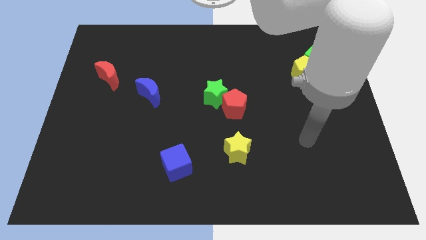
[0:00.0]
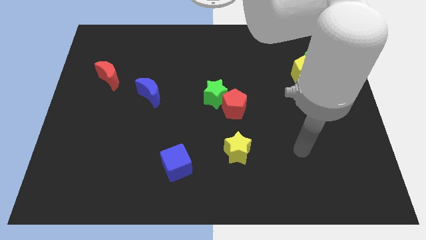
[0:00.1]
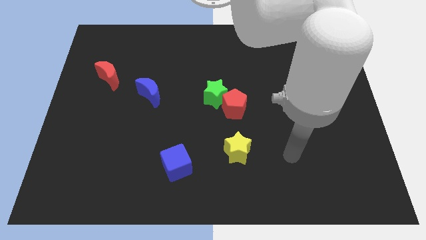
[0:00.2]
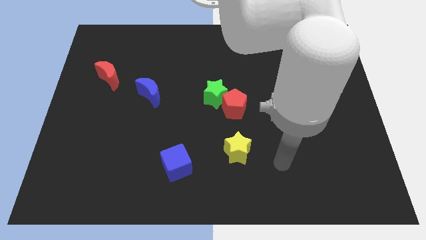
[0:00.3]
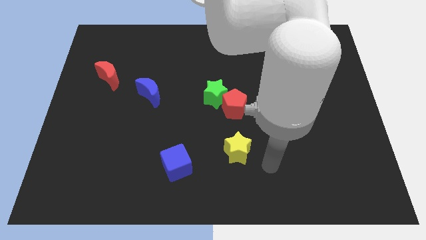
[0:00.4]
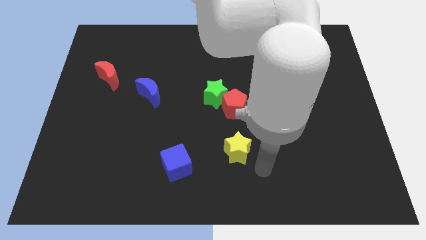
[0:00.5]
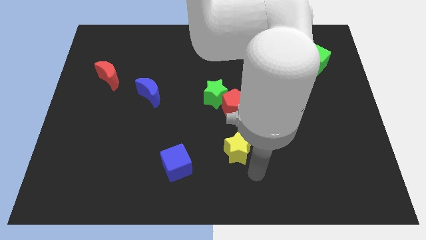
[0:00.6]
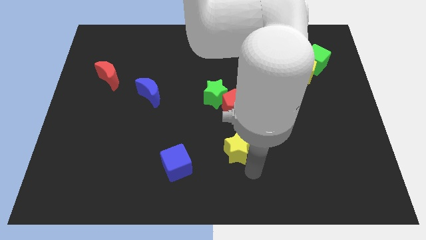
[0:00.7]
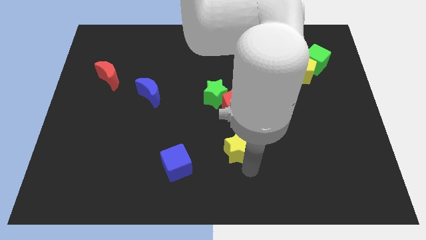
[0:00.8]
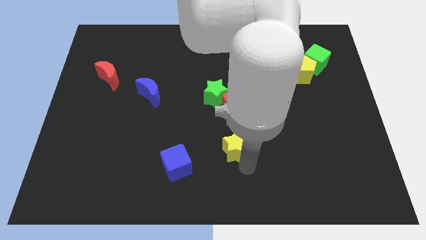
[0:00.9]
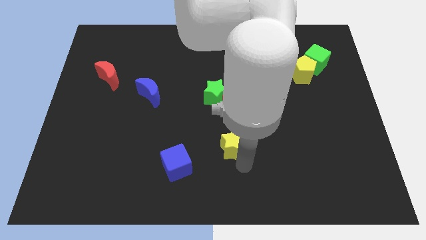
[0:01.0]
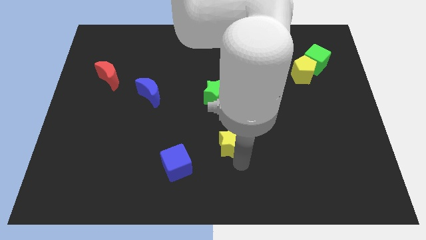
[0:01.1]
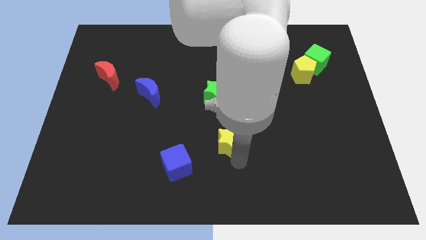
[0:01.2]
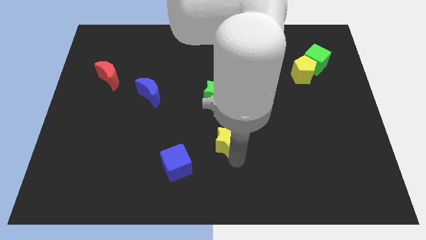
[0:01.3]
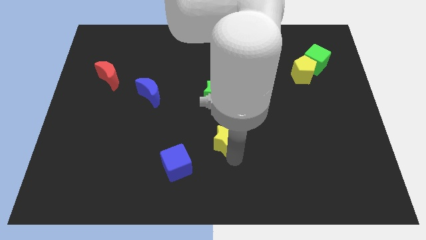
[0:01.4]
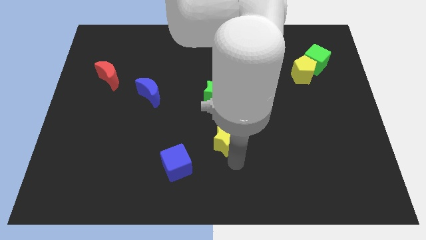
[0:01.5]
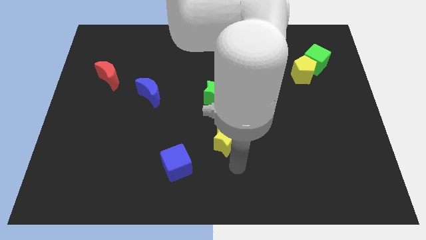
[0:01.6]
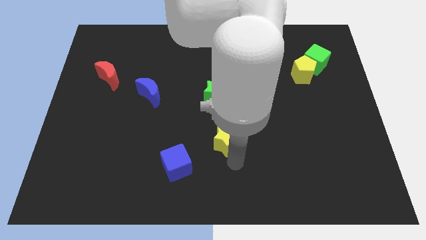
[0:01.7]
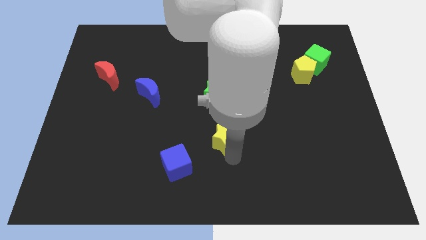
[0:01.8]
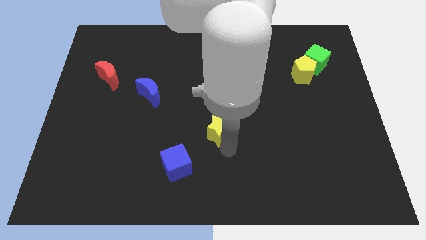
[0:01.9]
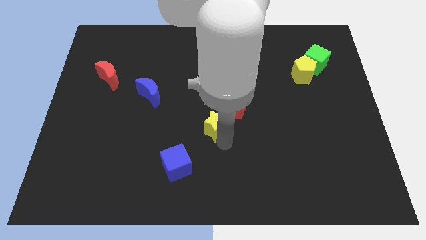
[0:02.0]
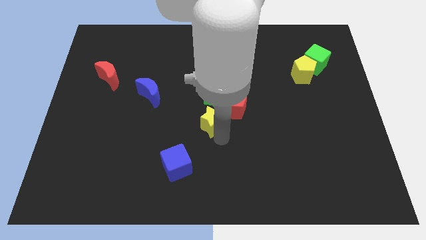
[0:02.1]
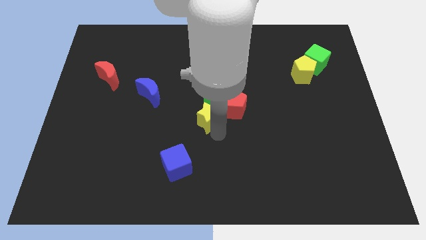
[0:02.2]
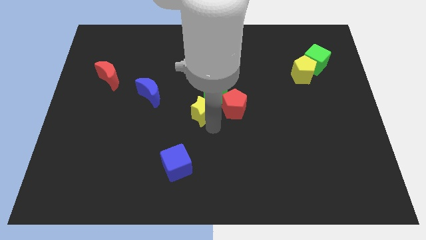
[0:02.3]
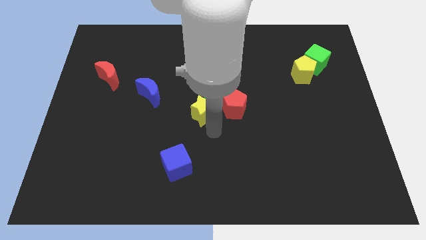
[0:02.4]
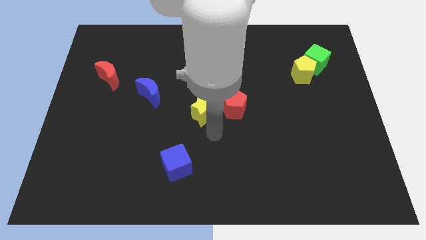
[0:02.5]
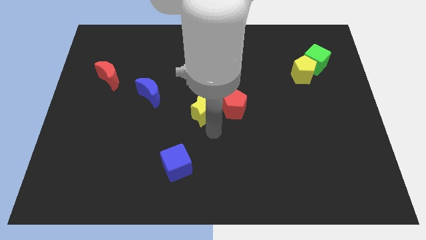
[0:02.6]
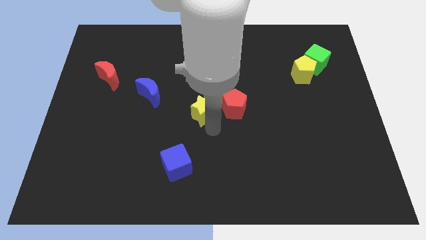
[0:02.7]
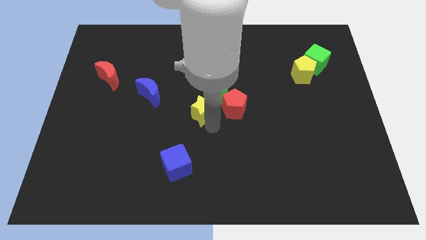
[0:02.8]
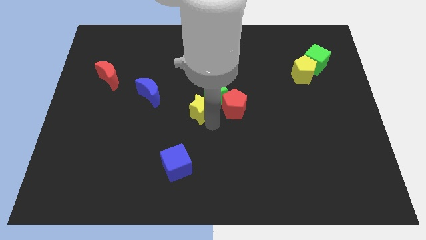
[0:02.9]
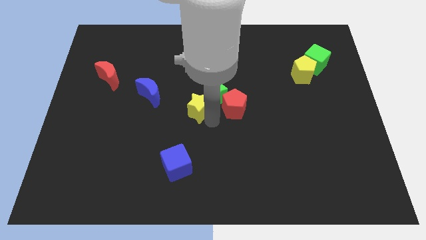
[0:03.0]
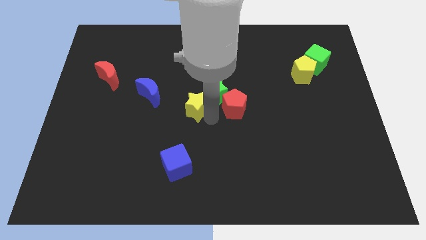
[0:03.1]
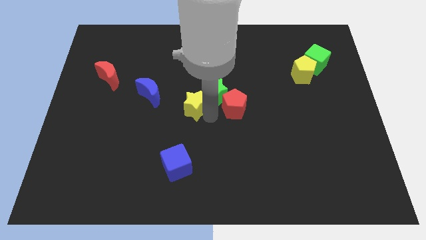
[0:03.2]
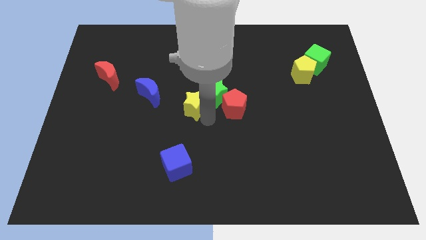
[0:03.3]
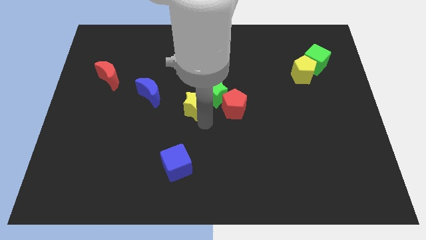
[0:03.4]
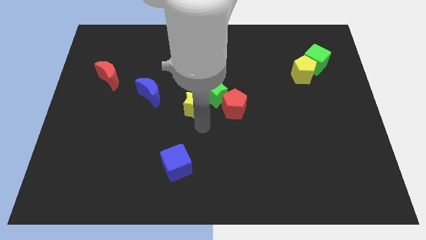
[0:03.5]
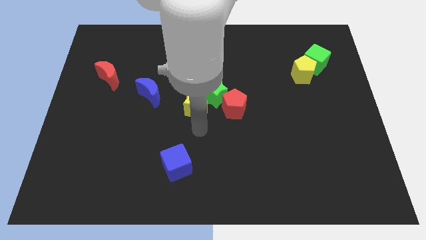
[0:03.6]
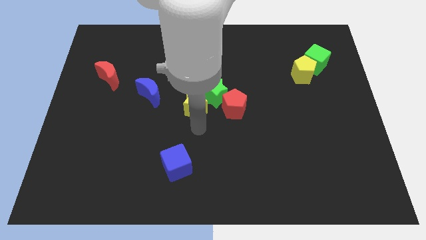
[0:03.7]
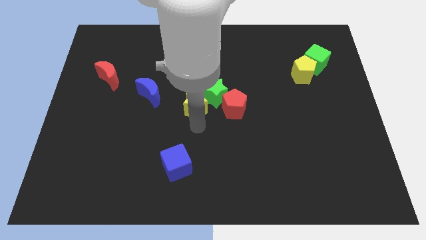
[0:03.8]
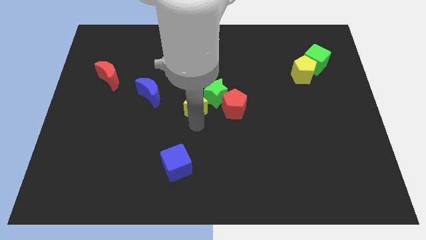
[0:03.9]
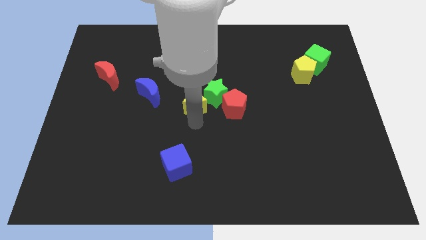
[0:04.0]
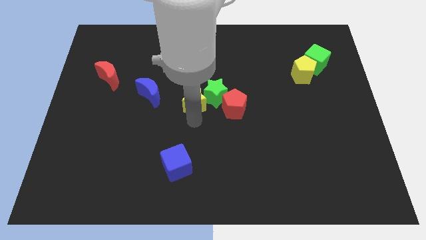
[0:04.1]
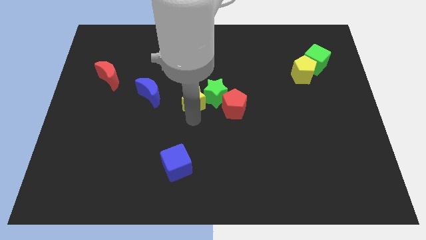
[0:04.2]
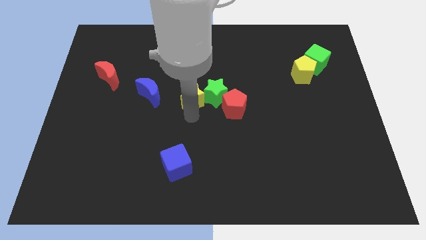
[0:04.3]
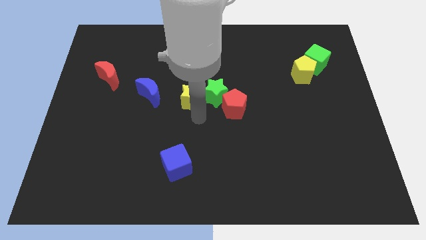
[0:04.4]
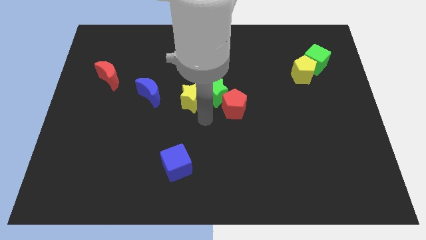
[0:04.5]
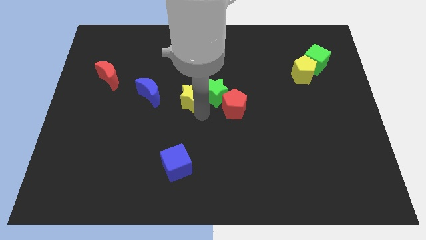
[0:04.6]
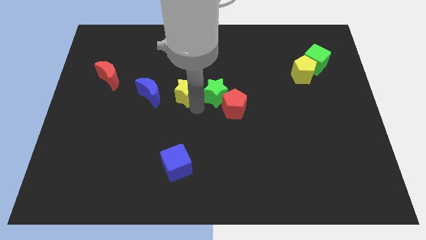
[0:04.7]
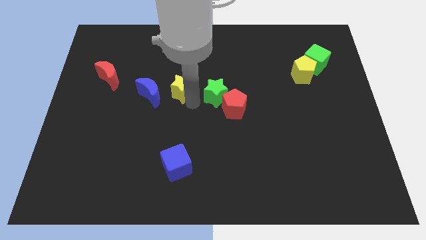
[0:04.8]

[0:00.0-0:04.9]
slide the yellow star to the top right side of the blue moon

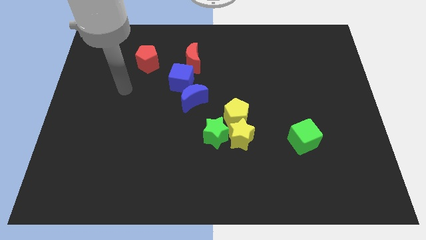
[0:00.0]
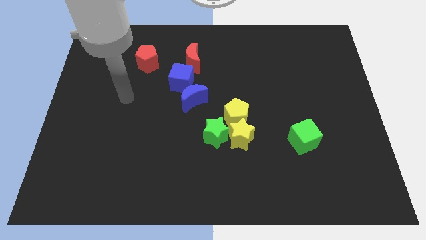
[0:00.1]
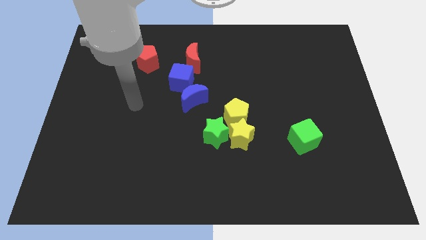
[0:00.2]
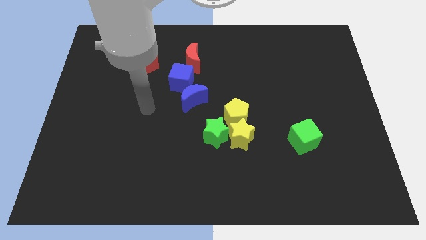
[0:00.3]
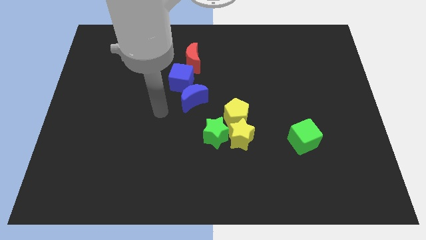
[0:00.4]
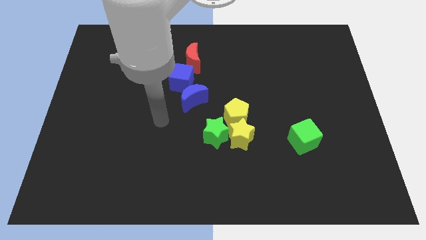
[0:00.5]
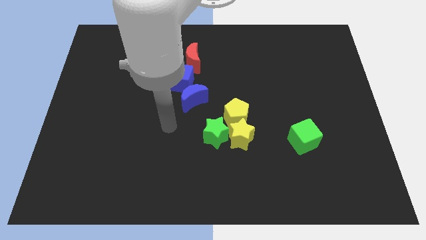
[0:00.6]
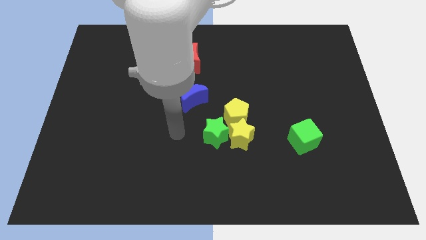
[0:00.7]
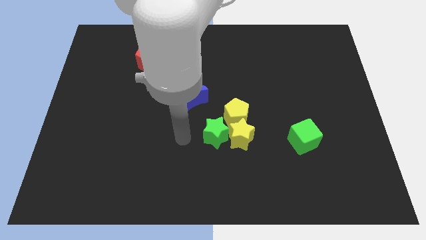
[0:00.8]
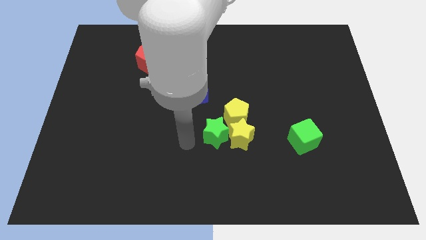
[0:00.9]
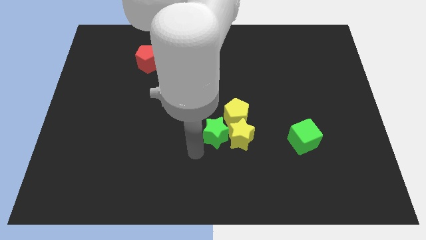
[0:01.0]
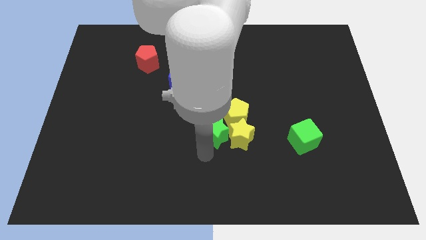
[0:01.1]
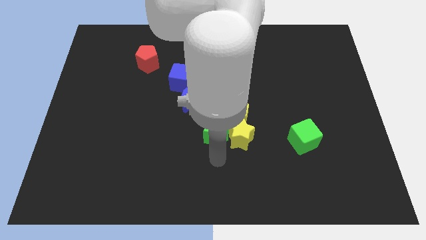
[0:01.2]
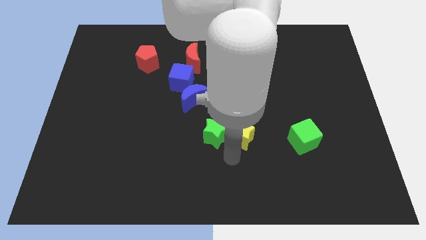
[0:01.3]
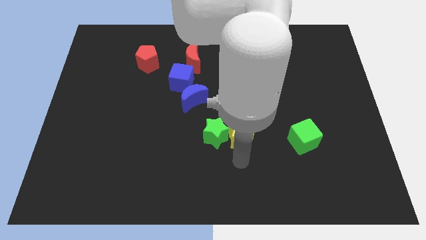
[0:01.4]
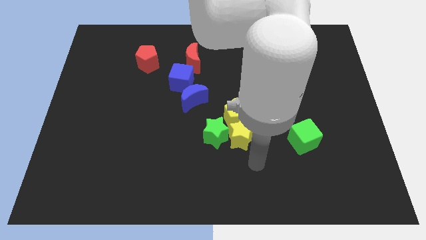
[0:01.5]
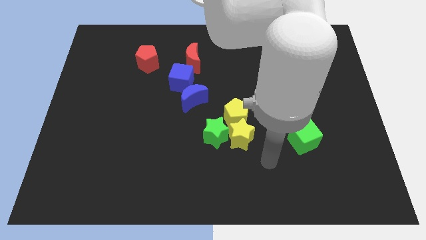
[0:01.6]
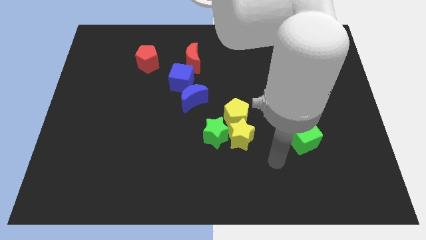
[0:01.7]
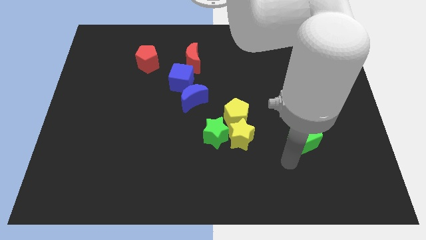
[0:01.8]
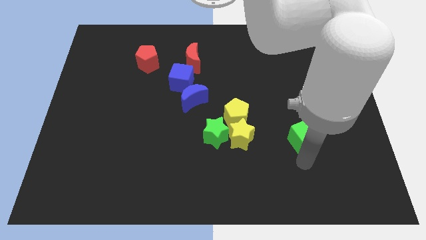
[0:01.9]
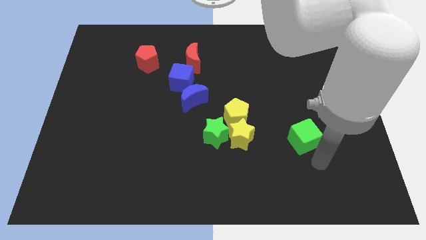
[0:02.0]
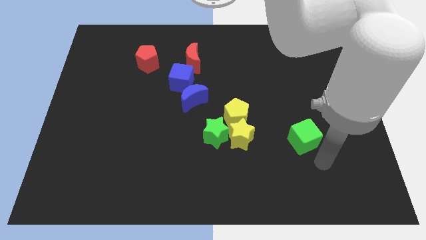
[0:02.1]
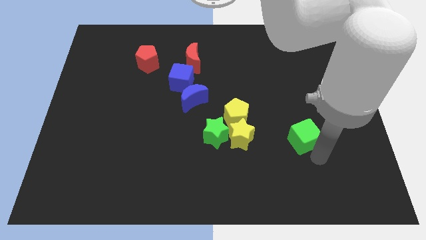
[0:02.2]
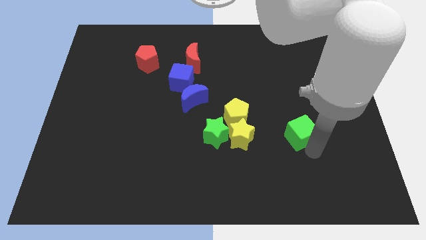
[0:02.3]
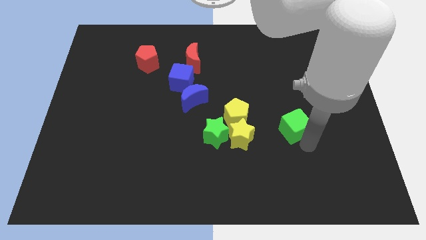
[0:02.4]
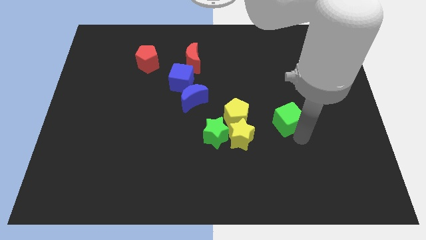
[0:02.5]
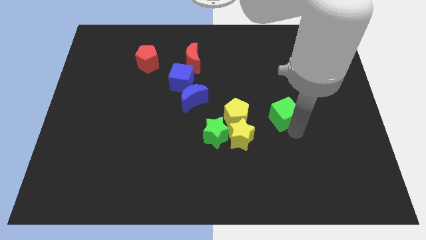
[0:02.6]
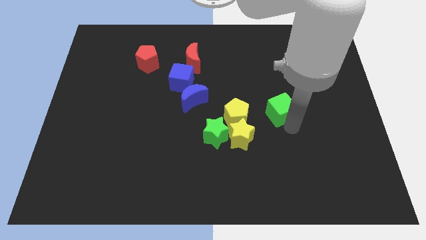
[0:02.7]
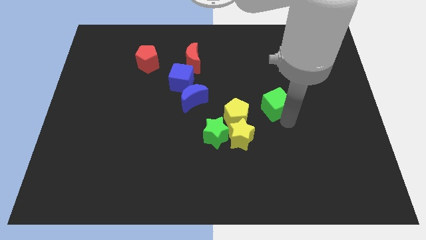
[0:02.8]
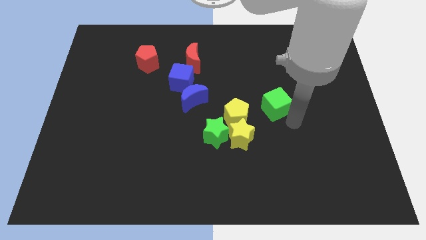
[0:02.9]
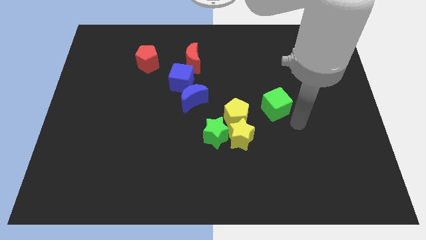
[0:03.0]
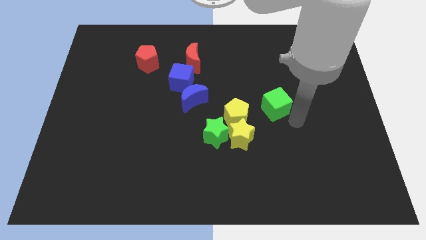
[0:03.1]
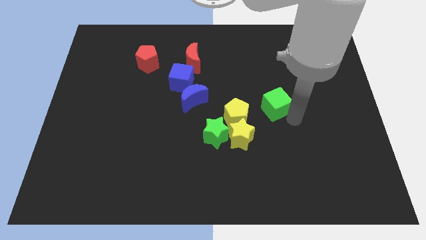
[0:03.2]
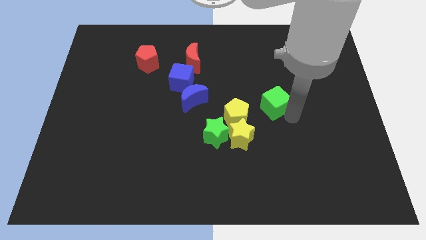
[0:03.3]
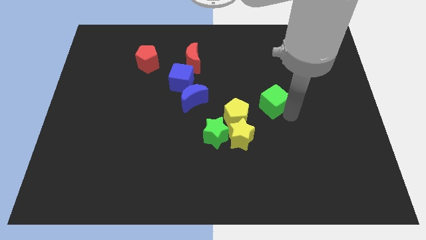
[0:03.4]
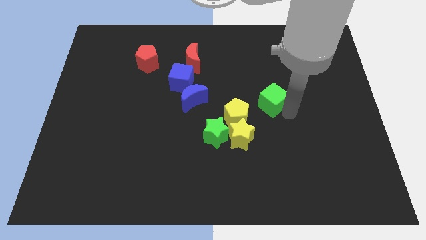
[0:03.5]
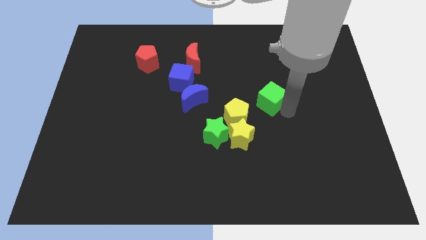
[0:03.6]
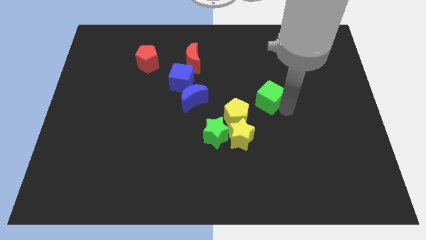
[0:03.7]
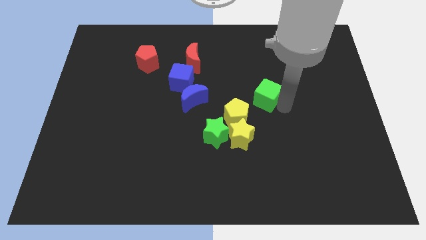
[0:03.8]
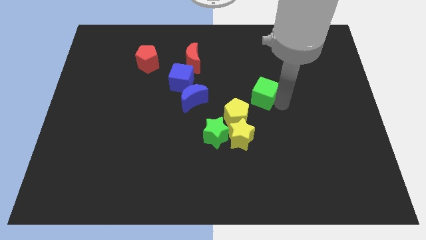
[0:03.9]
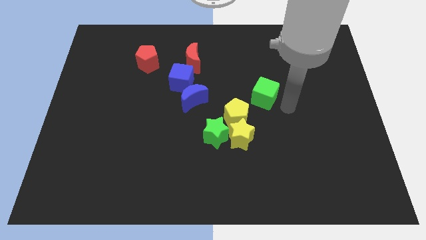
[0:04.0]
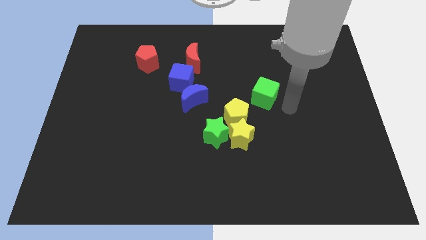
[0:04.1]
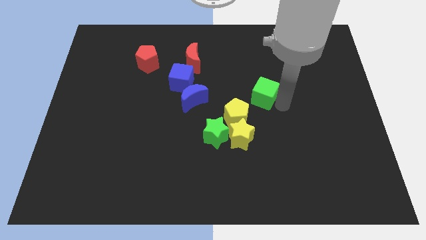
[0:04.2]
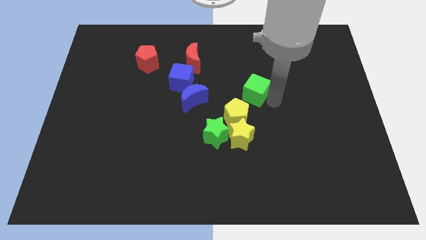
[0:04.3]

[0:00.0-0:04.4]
move the green cube above the yellow pentagon
